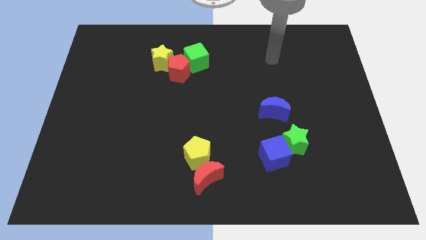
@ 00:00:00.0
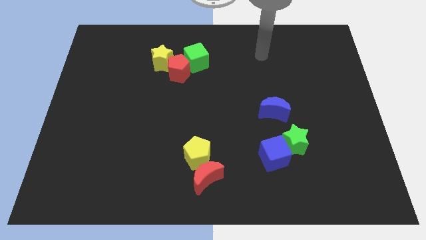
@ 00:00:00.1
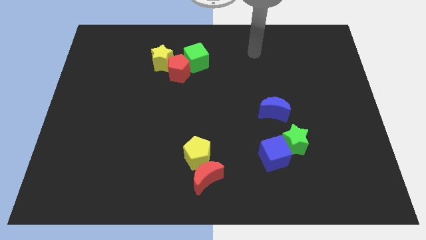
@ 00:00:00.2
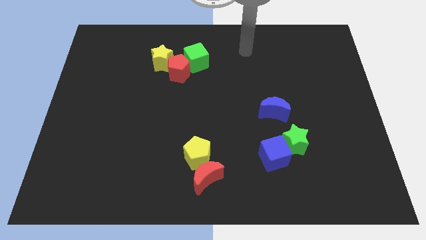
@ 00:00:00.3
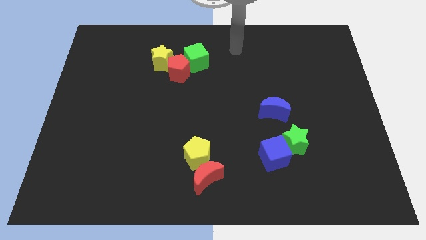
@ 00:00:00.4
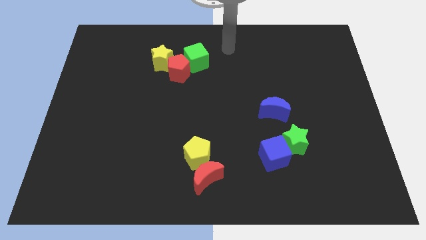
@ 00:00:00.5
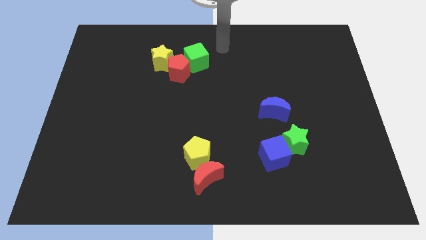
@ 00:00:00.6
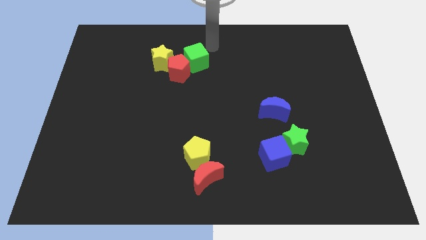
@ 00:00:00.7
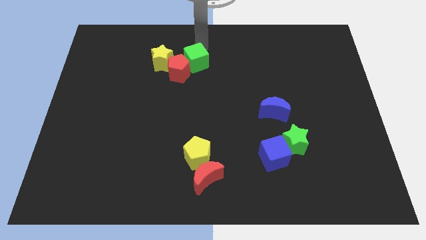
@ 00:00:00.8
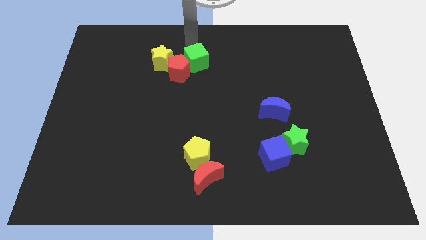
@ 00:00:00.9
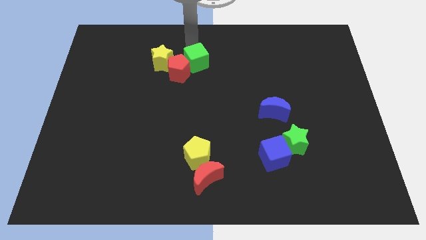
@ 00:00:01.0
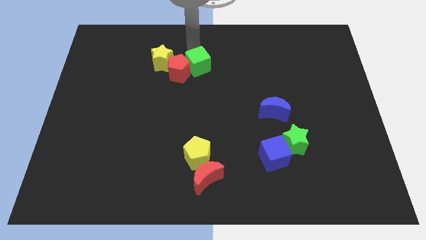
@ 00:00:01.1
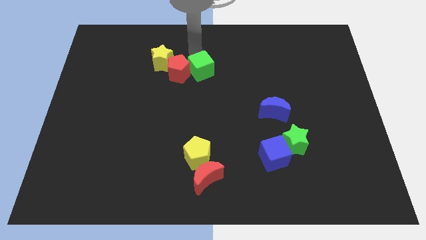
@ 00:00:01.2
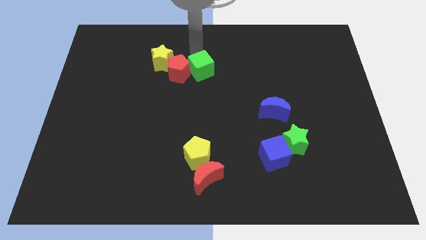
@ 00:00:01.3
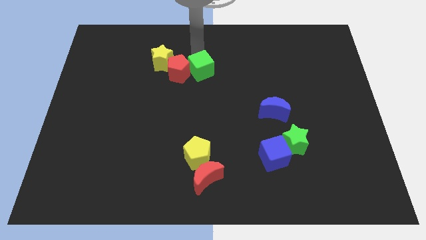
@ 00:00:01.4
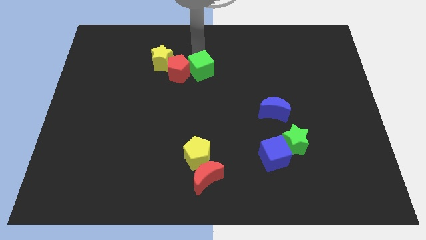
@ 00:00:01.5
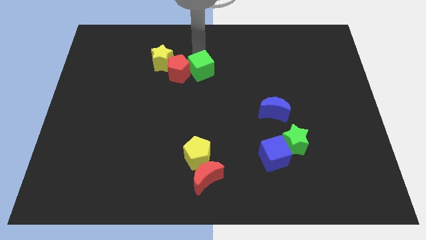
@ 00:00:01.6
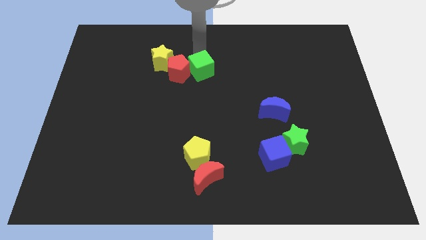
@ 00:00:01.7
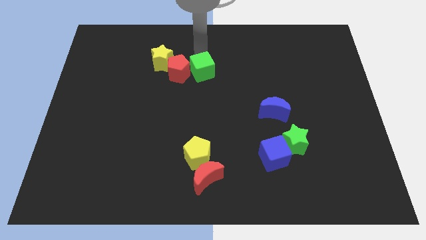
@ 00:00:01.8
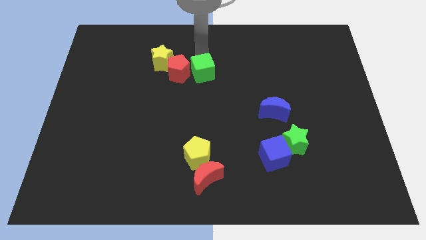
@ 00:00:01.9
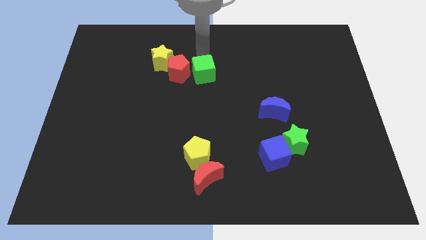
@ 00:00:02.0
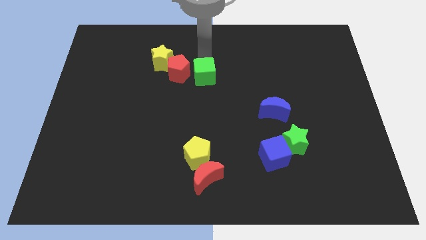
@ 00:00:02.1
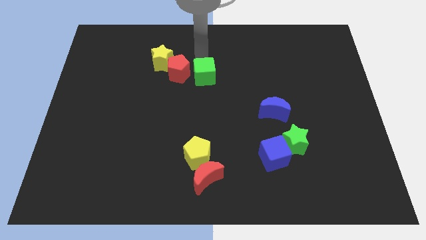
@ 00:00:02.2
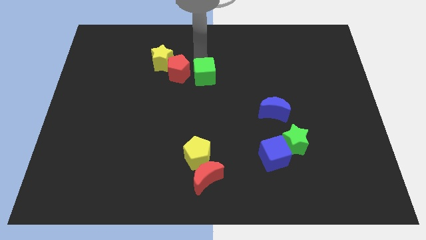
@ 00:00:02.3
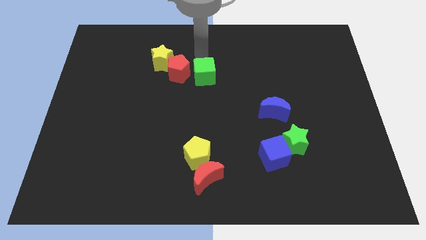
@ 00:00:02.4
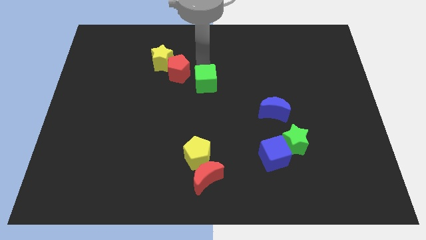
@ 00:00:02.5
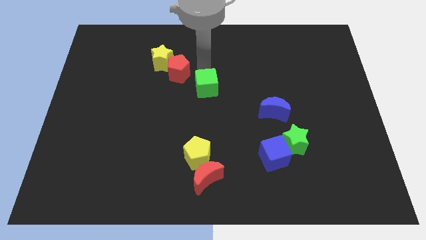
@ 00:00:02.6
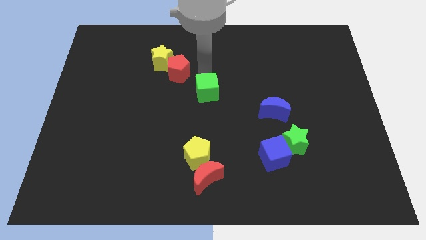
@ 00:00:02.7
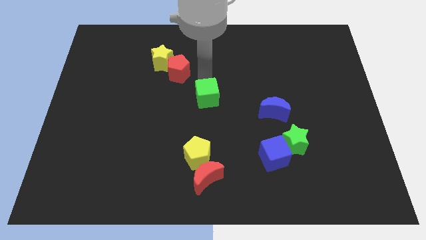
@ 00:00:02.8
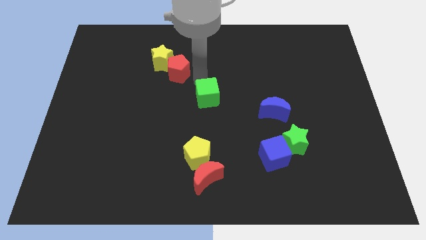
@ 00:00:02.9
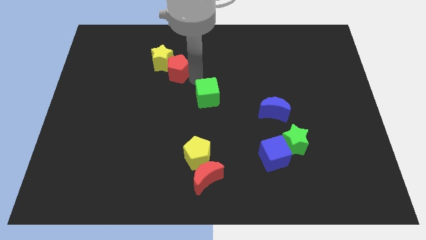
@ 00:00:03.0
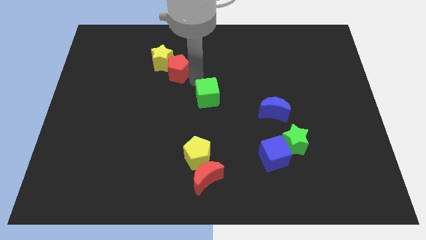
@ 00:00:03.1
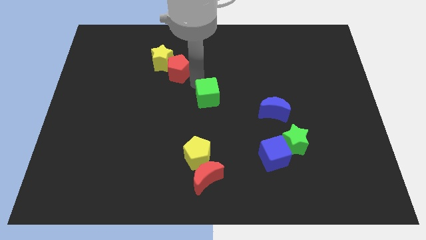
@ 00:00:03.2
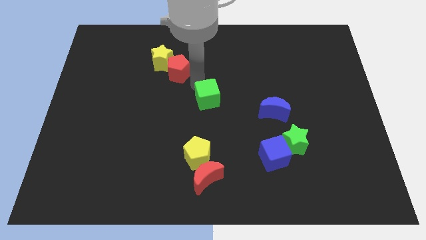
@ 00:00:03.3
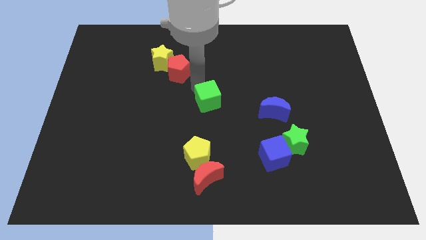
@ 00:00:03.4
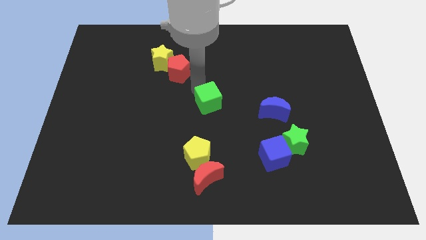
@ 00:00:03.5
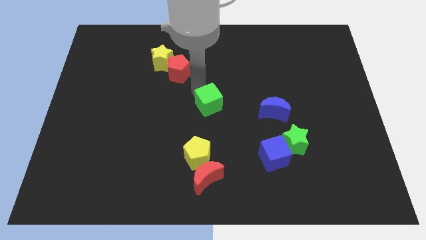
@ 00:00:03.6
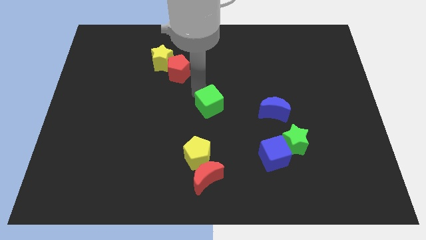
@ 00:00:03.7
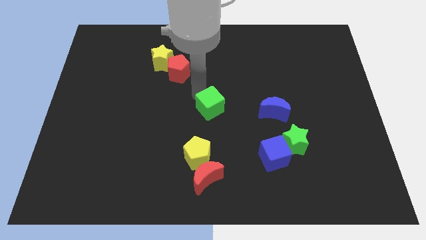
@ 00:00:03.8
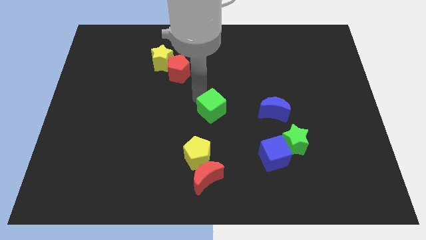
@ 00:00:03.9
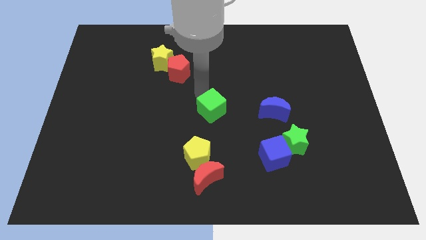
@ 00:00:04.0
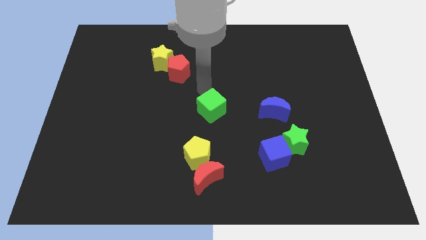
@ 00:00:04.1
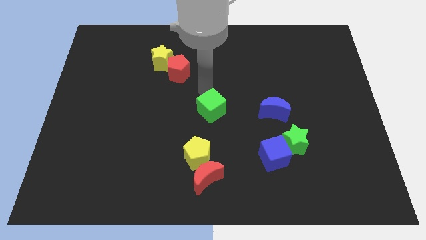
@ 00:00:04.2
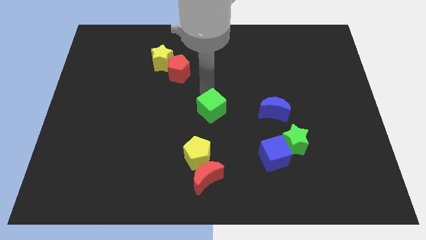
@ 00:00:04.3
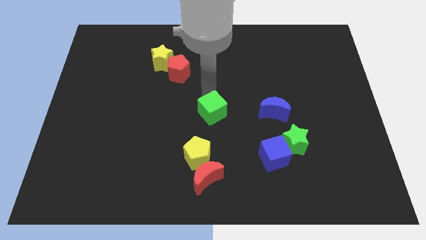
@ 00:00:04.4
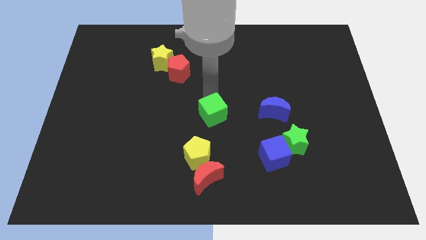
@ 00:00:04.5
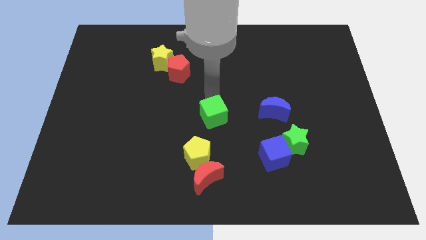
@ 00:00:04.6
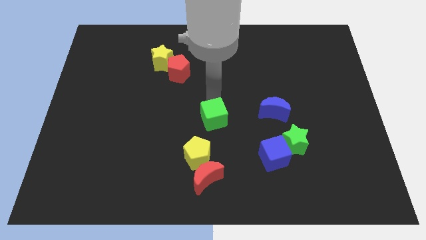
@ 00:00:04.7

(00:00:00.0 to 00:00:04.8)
move the green cube diagonally up and to the right of the yellow pentagon

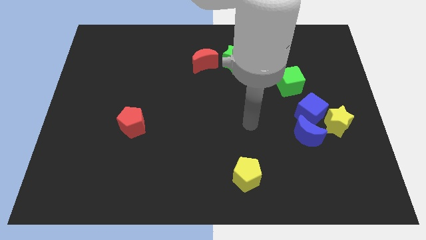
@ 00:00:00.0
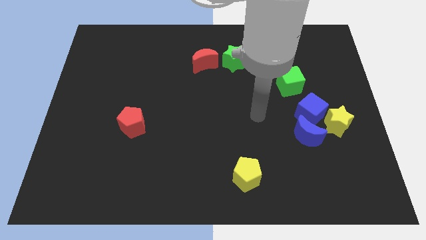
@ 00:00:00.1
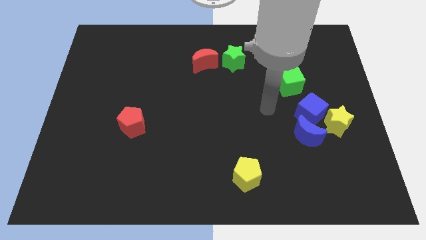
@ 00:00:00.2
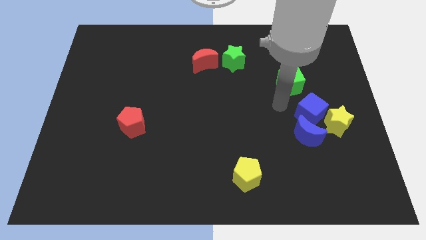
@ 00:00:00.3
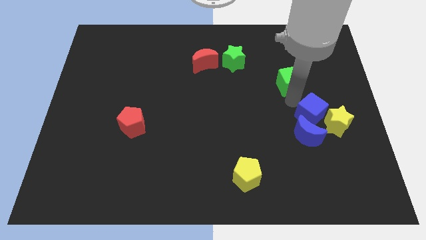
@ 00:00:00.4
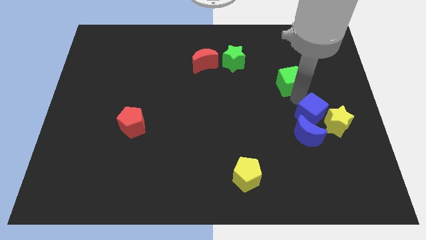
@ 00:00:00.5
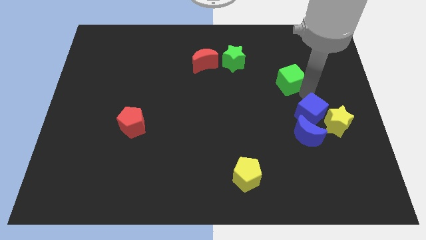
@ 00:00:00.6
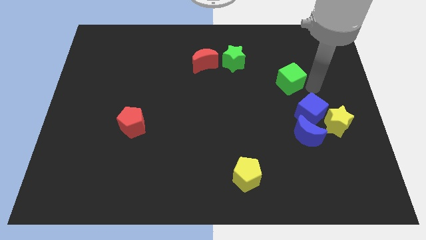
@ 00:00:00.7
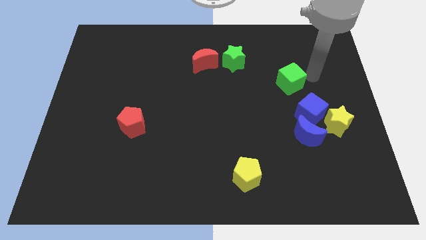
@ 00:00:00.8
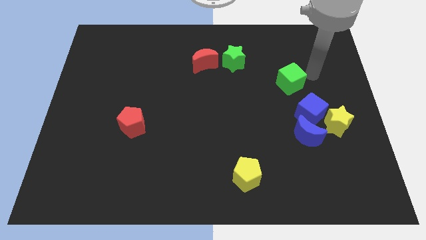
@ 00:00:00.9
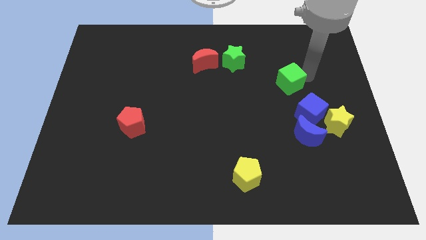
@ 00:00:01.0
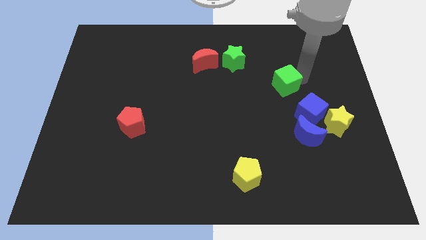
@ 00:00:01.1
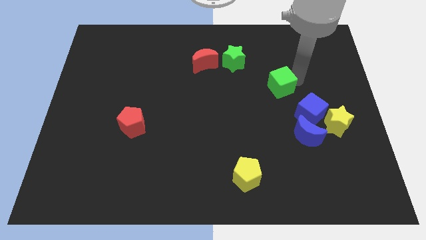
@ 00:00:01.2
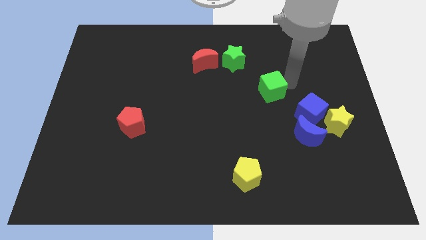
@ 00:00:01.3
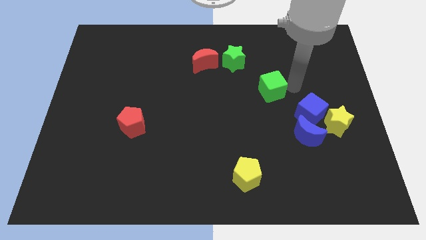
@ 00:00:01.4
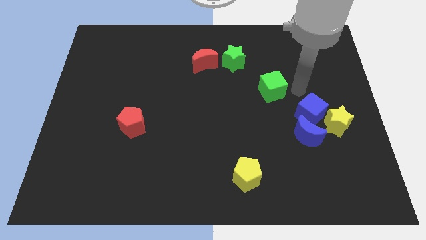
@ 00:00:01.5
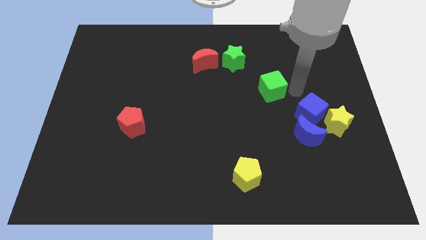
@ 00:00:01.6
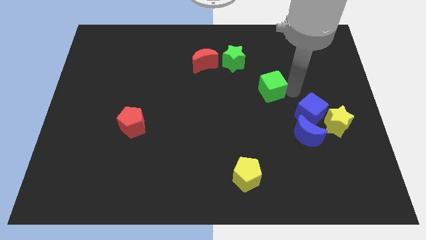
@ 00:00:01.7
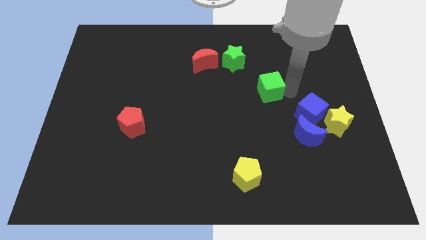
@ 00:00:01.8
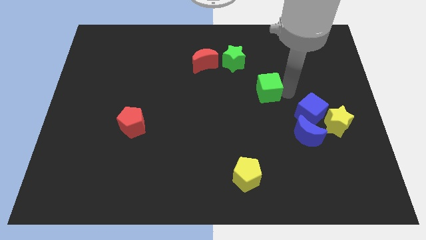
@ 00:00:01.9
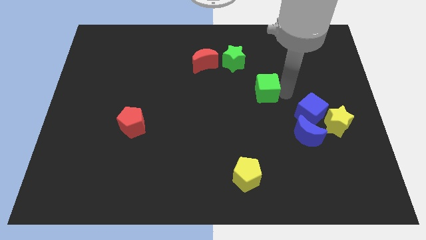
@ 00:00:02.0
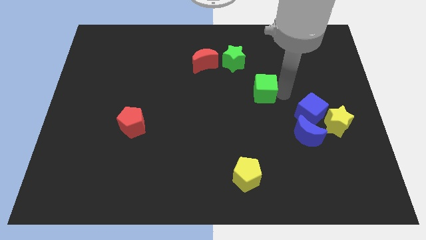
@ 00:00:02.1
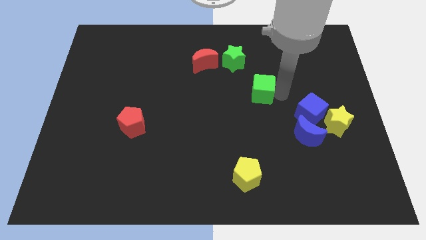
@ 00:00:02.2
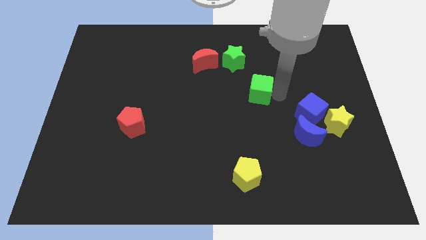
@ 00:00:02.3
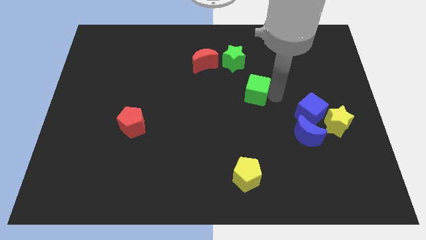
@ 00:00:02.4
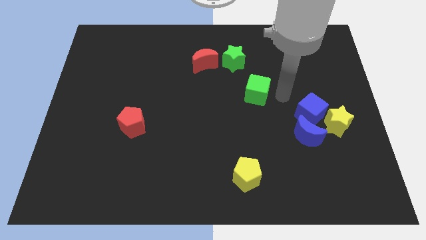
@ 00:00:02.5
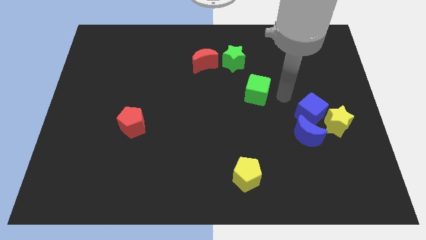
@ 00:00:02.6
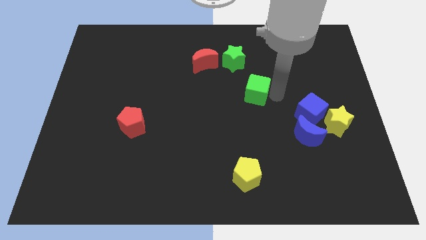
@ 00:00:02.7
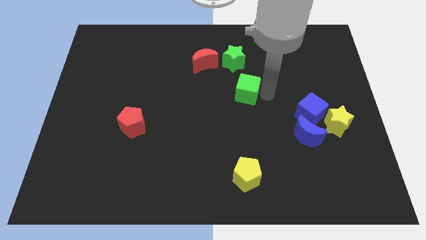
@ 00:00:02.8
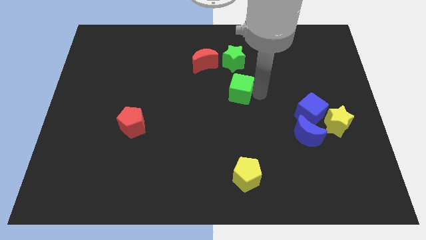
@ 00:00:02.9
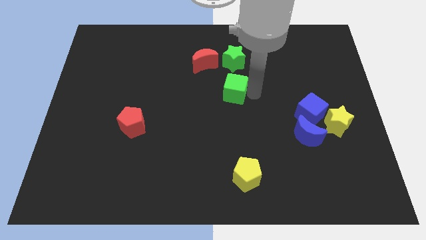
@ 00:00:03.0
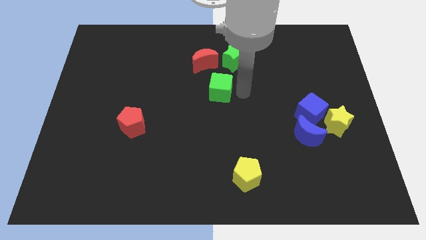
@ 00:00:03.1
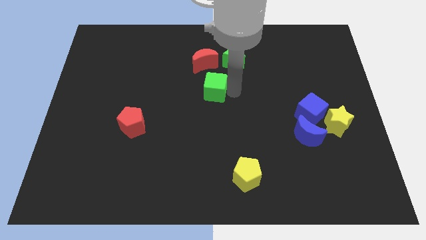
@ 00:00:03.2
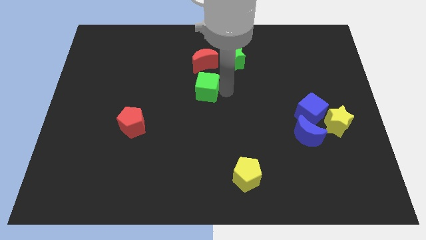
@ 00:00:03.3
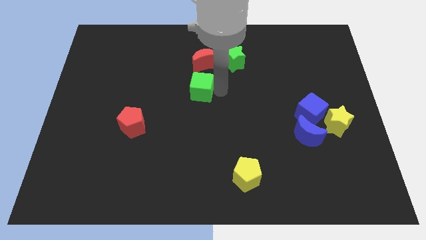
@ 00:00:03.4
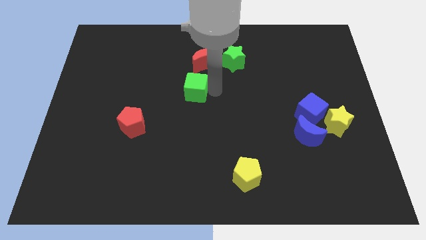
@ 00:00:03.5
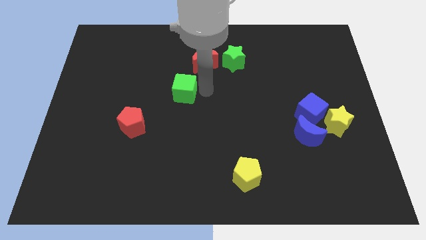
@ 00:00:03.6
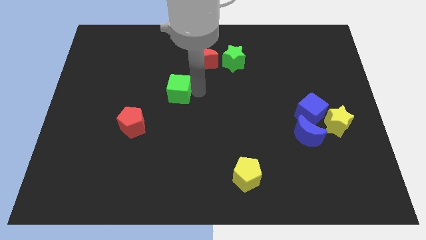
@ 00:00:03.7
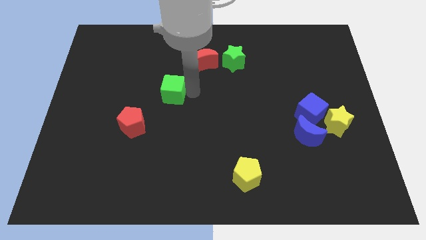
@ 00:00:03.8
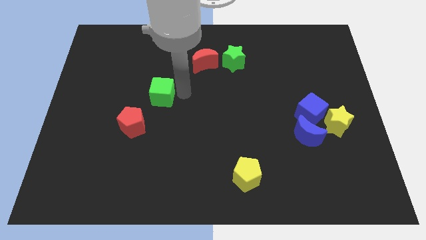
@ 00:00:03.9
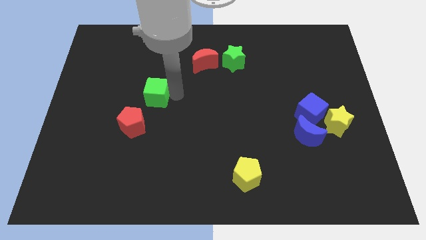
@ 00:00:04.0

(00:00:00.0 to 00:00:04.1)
slide the green cube to the top side of the red pentagon
